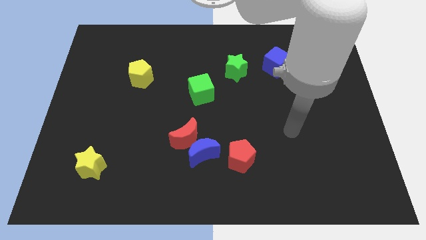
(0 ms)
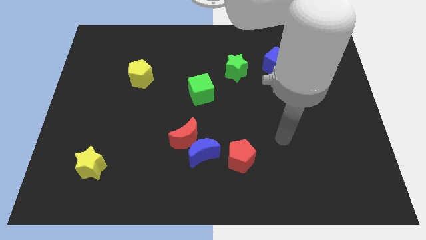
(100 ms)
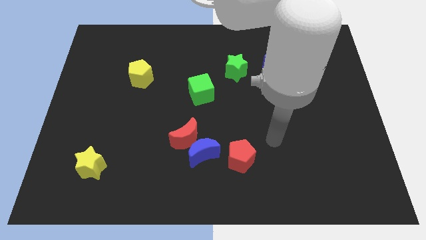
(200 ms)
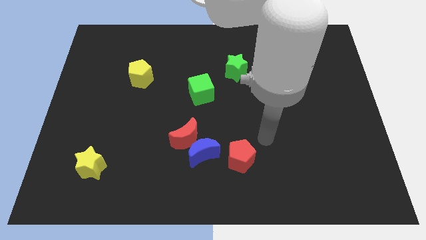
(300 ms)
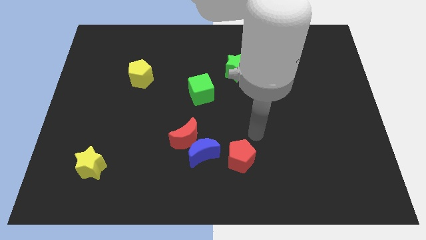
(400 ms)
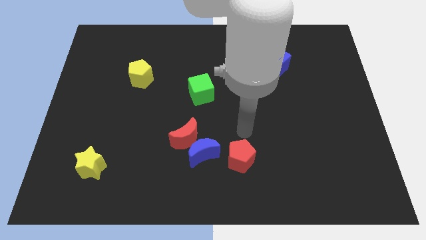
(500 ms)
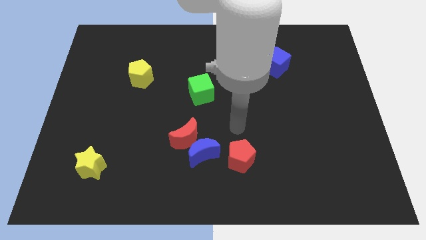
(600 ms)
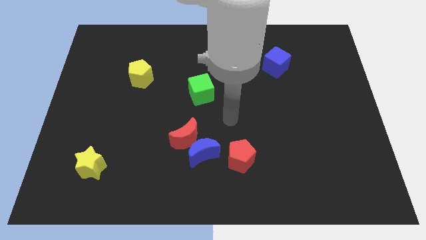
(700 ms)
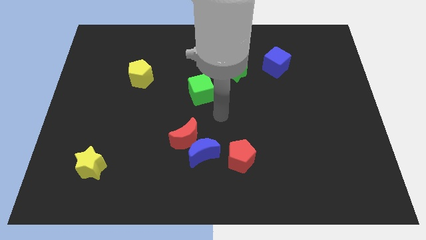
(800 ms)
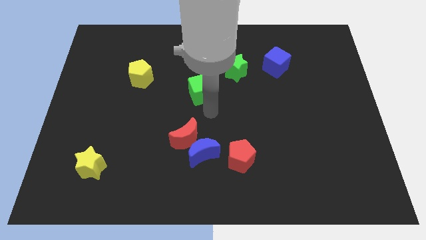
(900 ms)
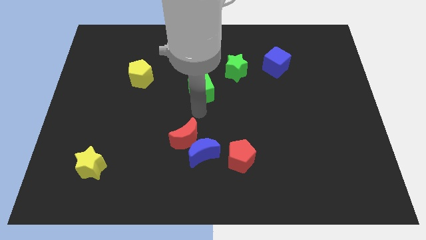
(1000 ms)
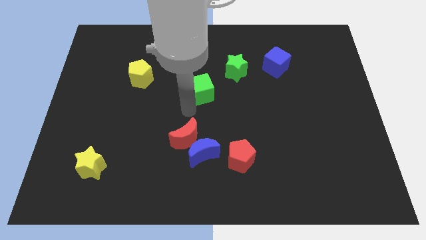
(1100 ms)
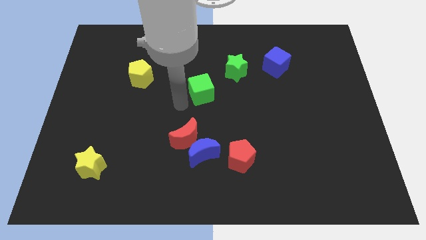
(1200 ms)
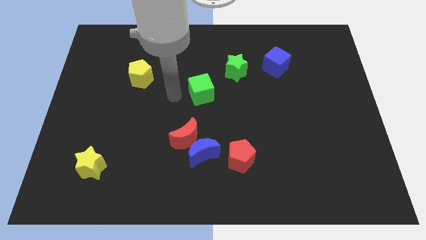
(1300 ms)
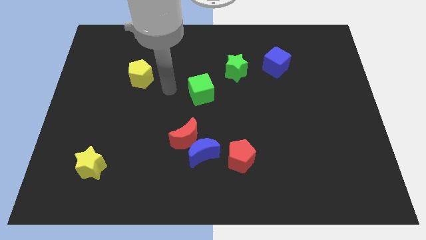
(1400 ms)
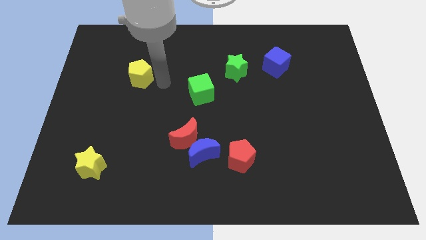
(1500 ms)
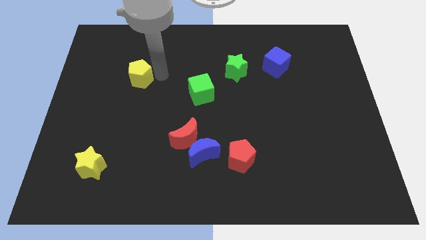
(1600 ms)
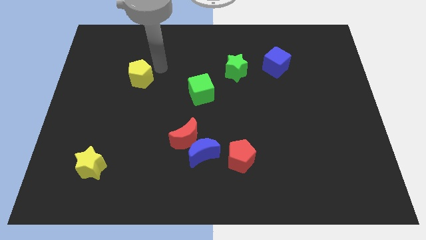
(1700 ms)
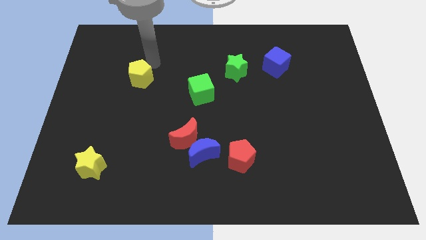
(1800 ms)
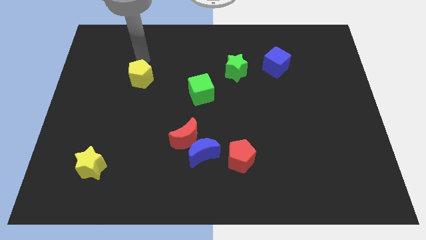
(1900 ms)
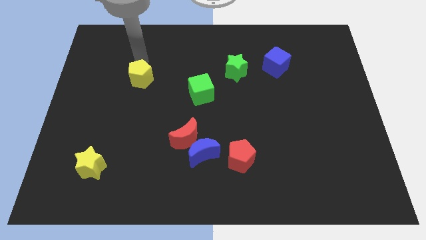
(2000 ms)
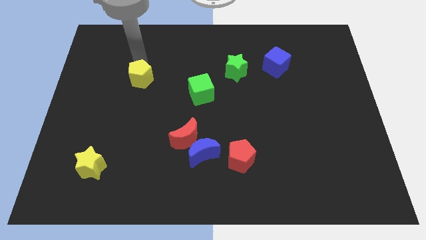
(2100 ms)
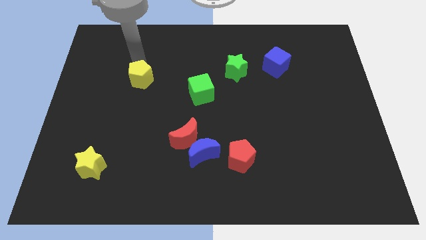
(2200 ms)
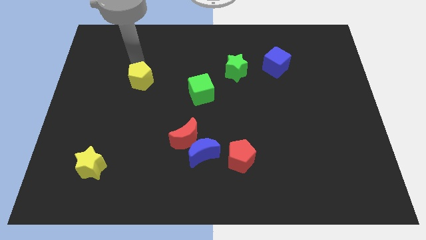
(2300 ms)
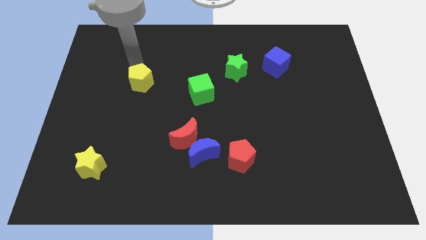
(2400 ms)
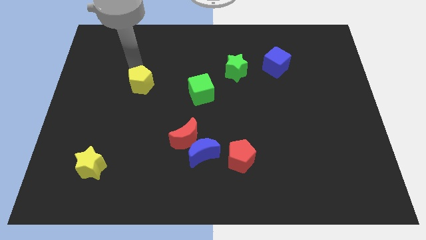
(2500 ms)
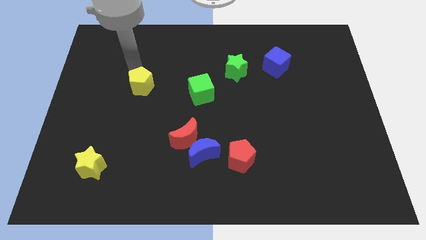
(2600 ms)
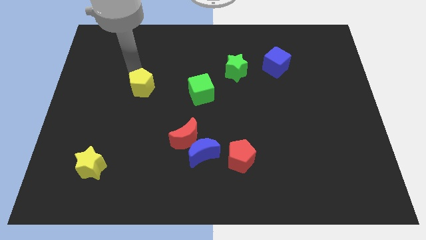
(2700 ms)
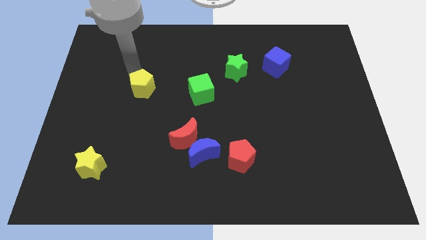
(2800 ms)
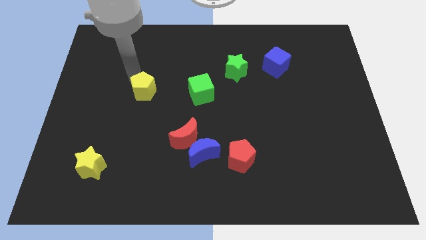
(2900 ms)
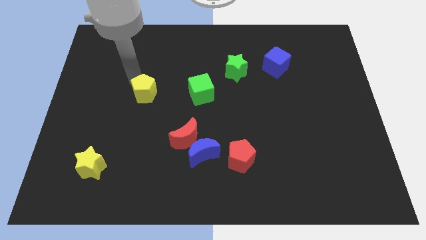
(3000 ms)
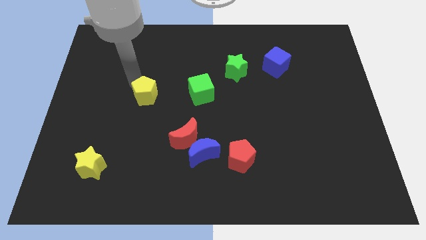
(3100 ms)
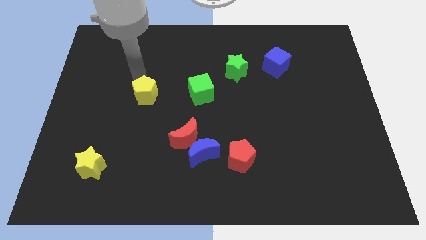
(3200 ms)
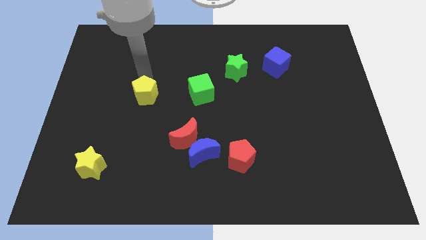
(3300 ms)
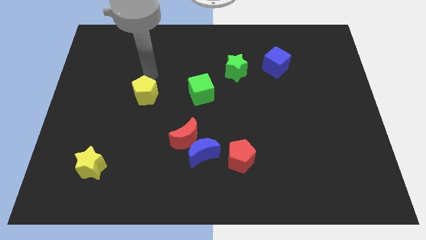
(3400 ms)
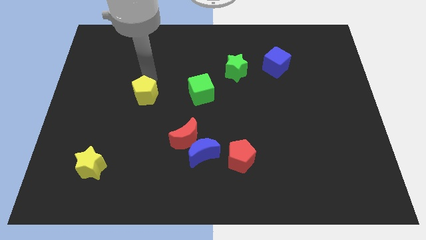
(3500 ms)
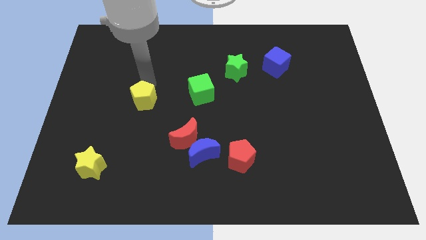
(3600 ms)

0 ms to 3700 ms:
slightly slide the yellow pentagon down

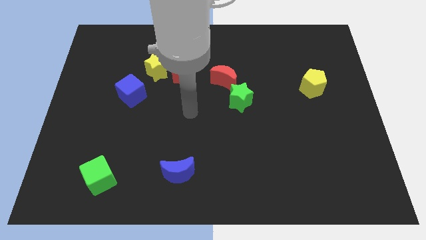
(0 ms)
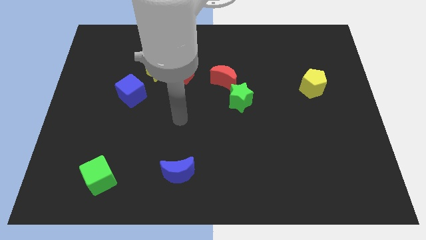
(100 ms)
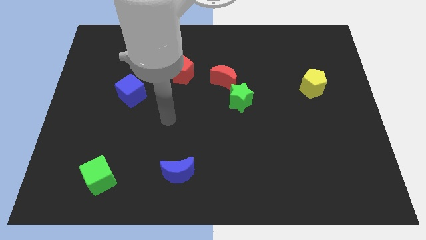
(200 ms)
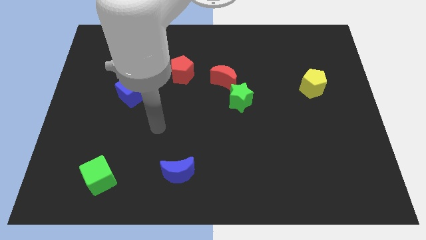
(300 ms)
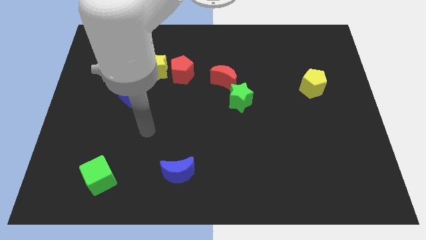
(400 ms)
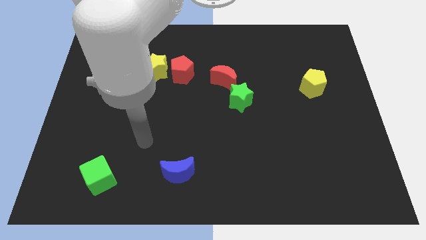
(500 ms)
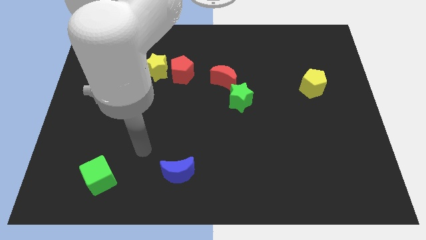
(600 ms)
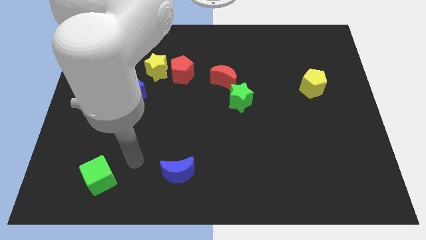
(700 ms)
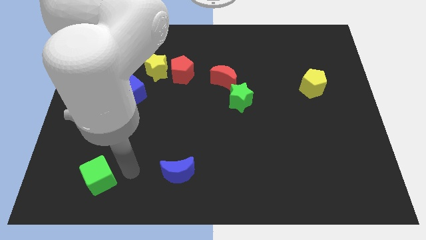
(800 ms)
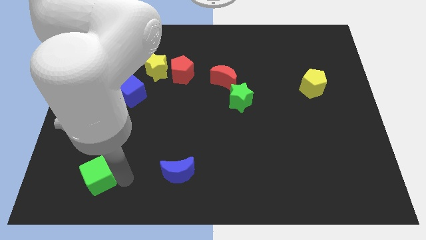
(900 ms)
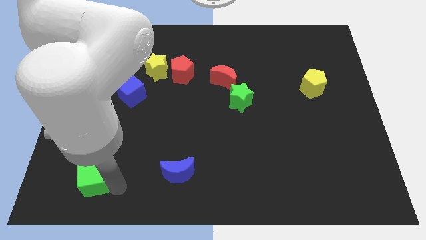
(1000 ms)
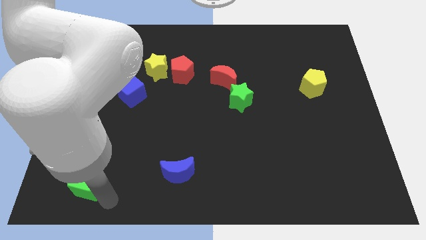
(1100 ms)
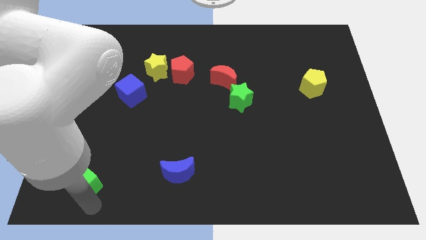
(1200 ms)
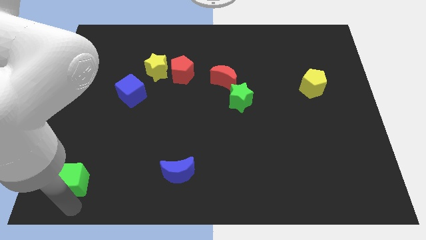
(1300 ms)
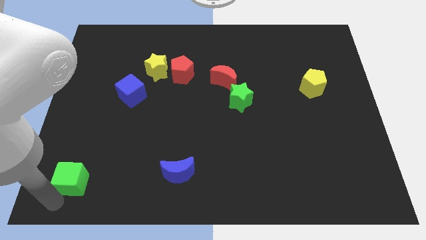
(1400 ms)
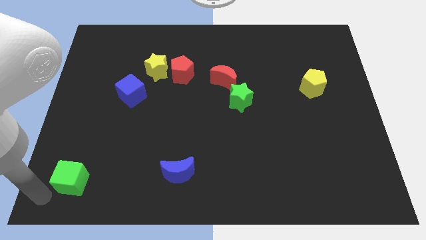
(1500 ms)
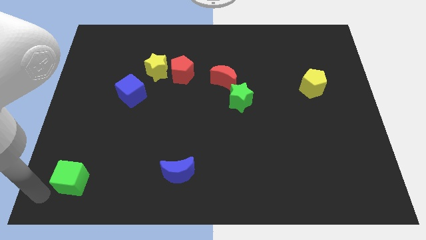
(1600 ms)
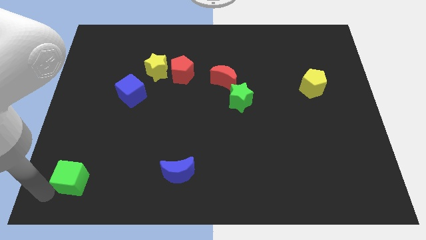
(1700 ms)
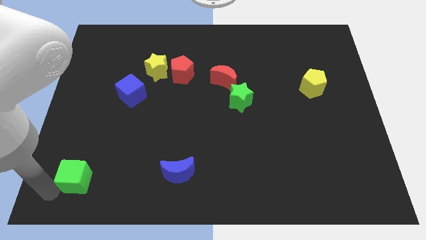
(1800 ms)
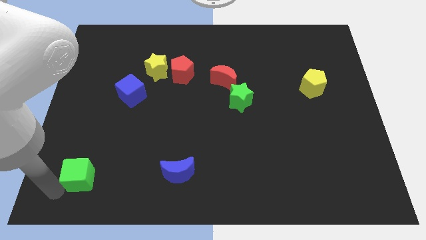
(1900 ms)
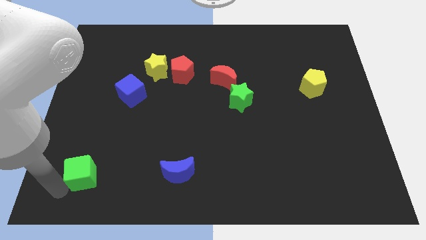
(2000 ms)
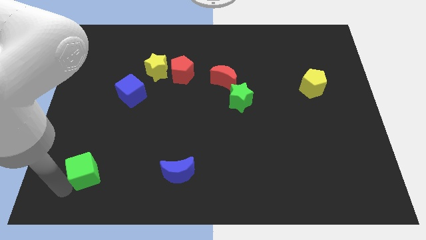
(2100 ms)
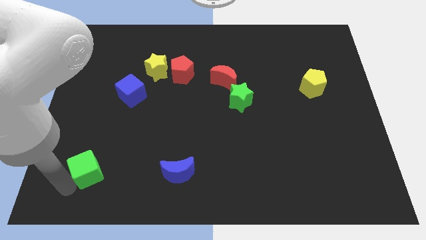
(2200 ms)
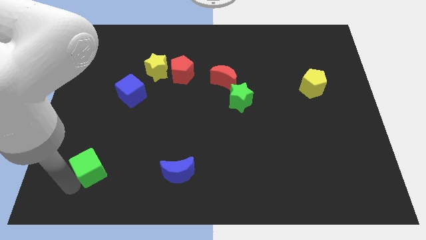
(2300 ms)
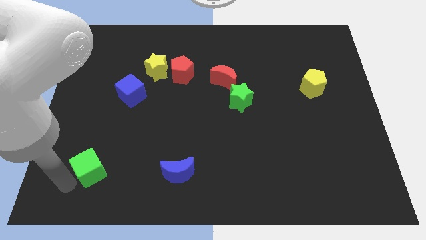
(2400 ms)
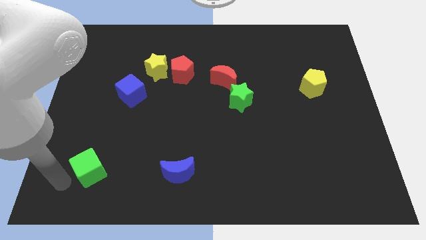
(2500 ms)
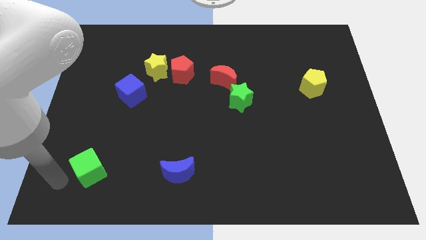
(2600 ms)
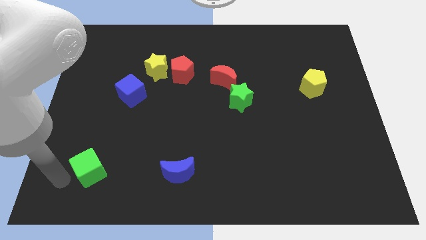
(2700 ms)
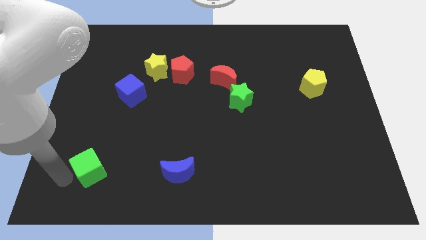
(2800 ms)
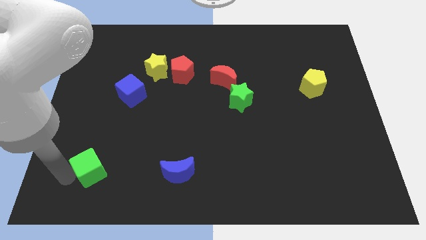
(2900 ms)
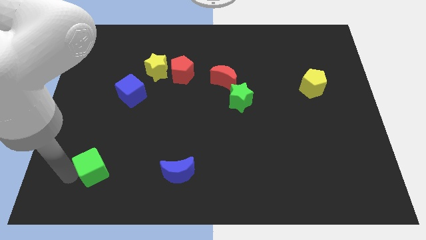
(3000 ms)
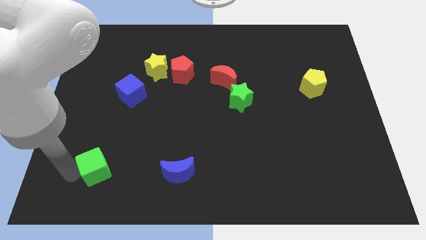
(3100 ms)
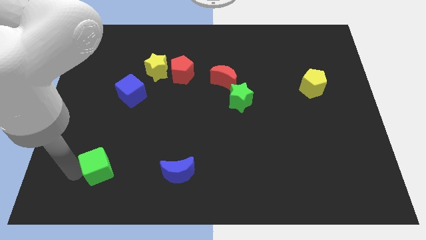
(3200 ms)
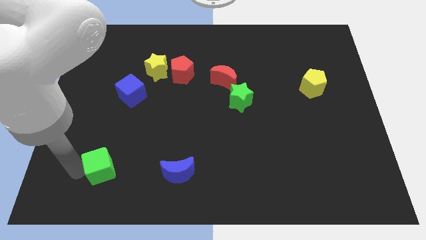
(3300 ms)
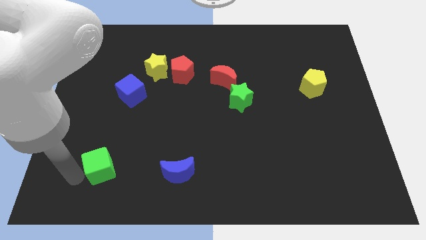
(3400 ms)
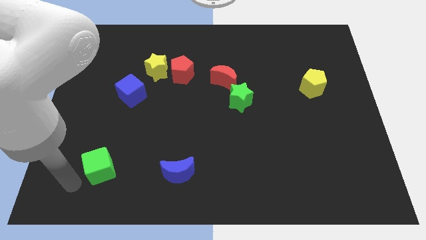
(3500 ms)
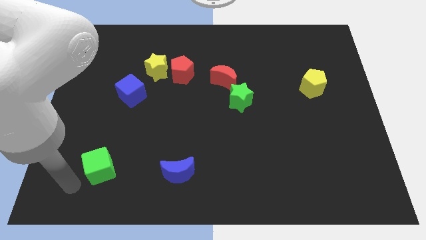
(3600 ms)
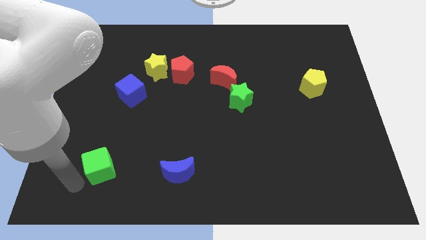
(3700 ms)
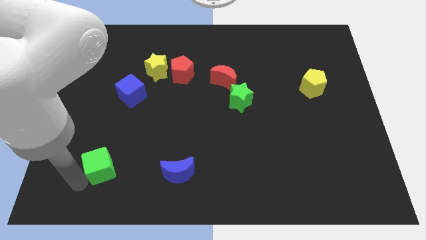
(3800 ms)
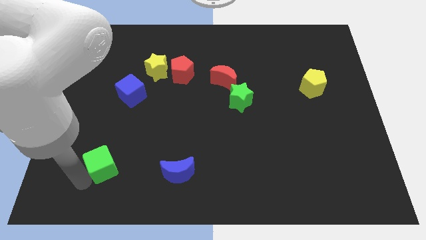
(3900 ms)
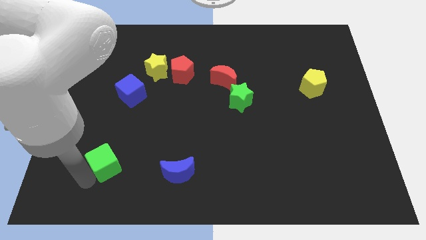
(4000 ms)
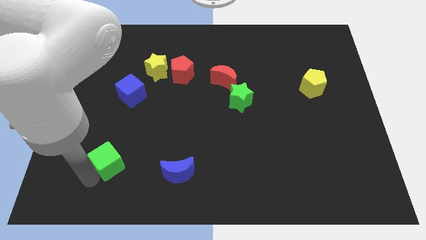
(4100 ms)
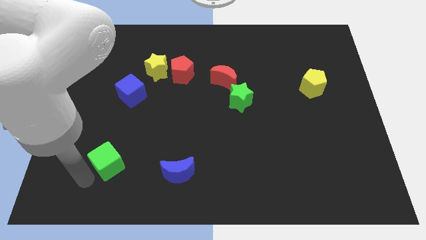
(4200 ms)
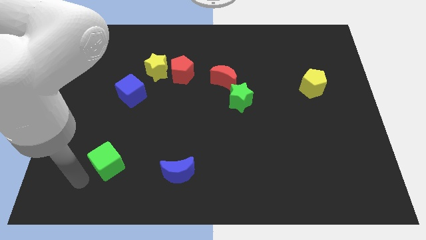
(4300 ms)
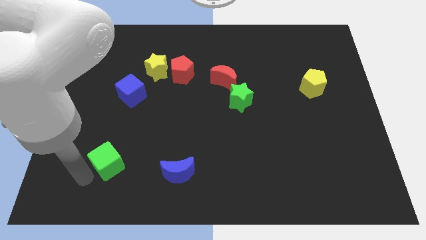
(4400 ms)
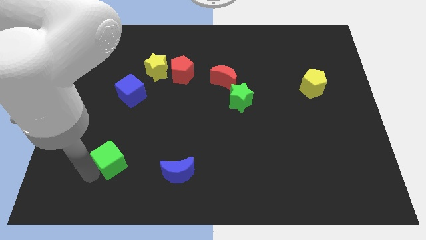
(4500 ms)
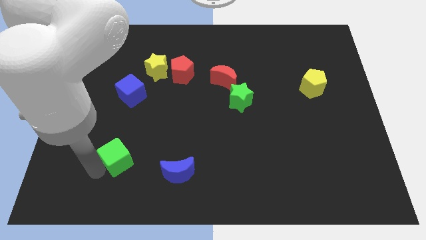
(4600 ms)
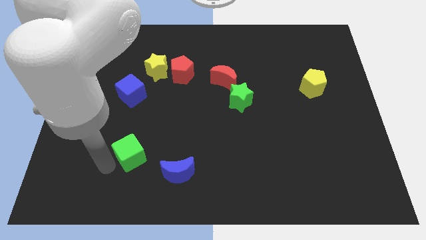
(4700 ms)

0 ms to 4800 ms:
slide the green cube diagonally up and right a little bit
